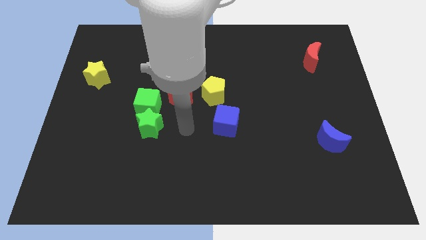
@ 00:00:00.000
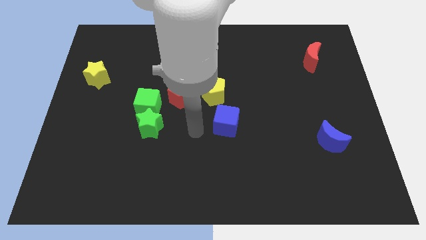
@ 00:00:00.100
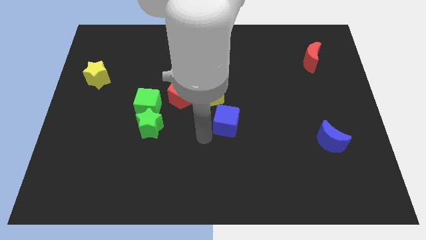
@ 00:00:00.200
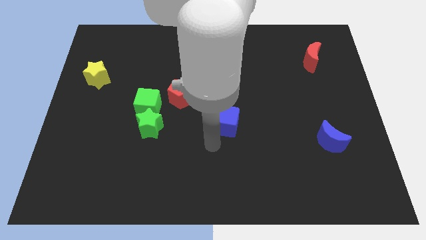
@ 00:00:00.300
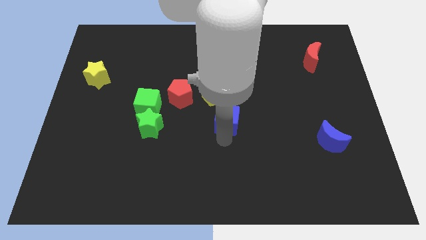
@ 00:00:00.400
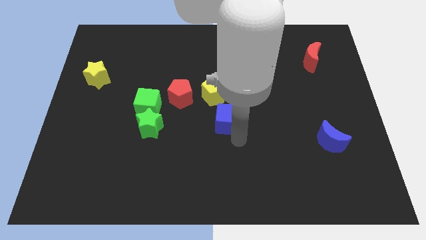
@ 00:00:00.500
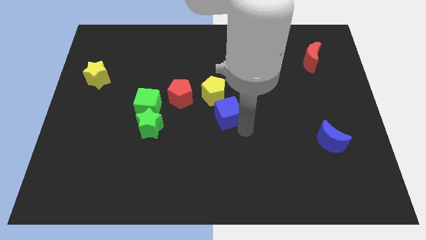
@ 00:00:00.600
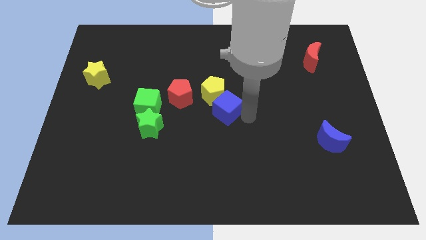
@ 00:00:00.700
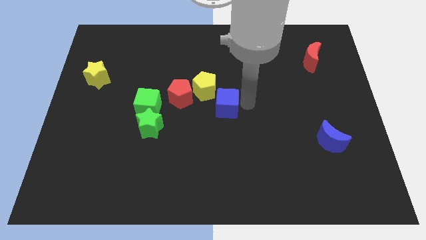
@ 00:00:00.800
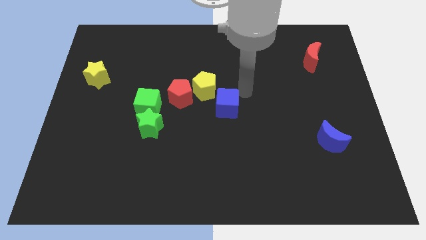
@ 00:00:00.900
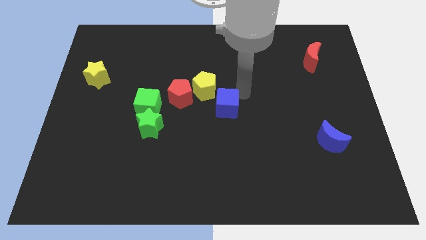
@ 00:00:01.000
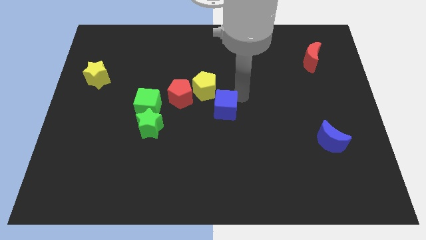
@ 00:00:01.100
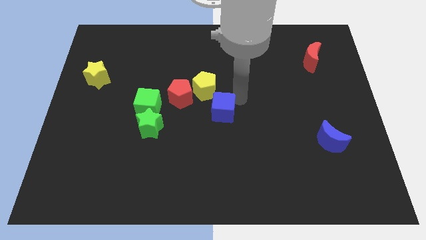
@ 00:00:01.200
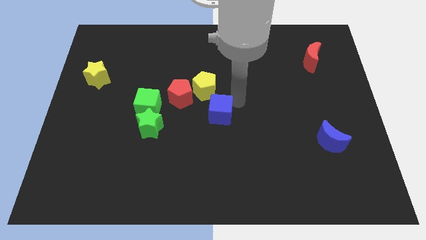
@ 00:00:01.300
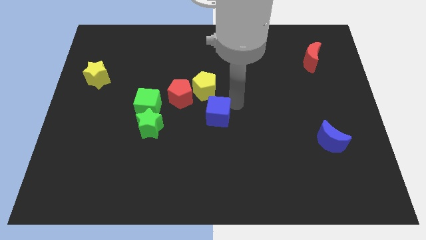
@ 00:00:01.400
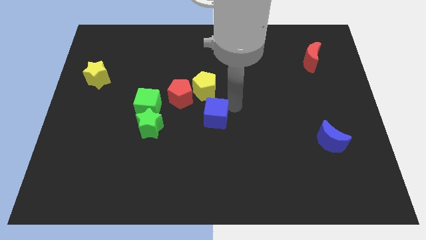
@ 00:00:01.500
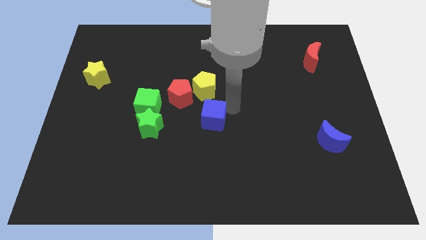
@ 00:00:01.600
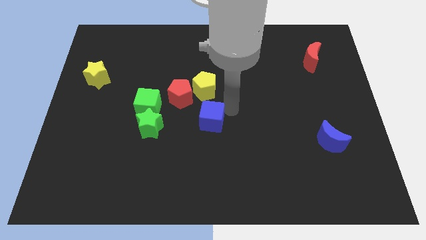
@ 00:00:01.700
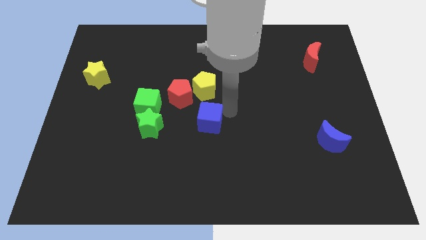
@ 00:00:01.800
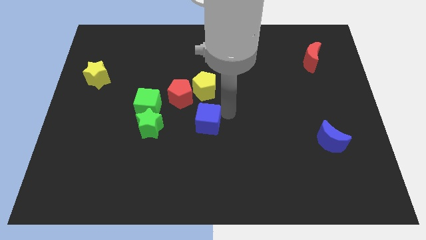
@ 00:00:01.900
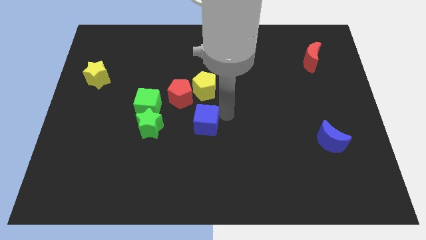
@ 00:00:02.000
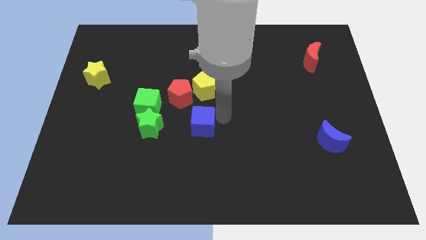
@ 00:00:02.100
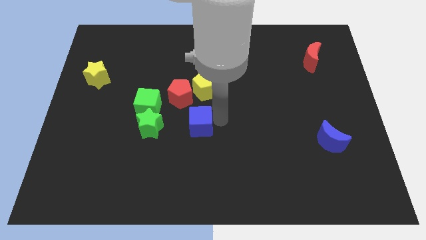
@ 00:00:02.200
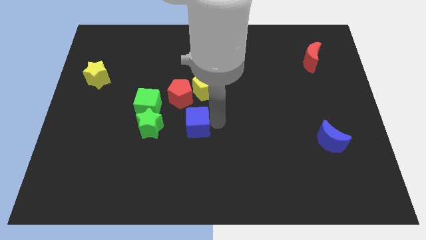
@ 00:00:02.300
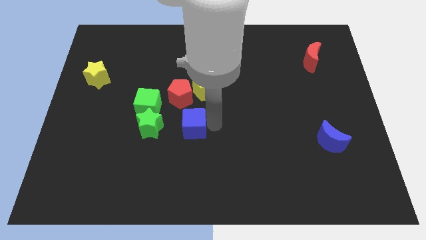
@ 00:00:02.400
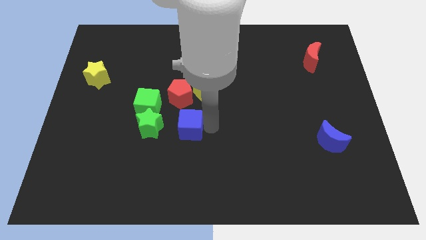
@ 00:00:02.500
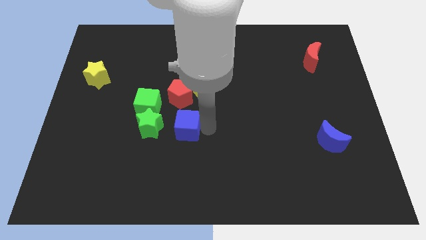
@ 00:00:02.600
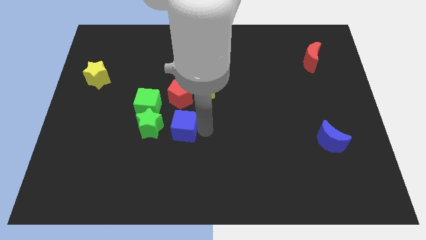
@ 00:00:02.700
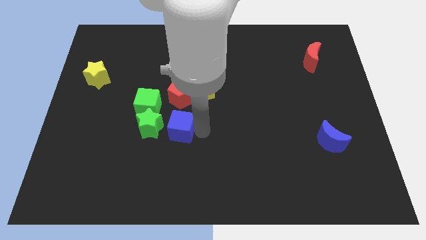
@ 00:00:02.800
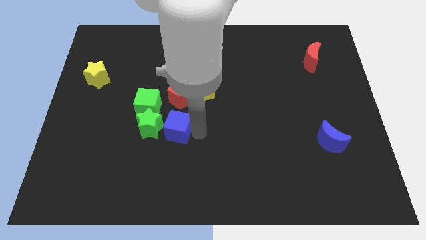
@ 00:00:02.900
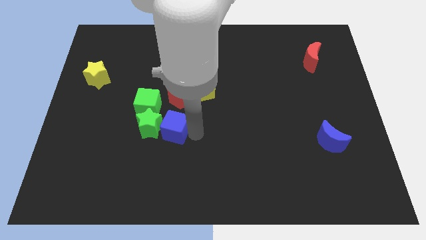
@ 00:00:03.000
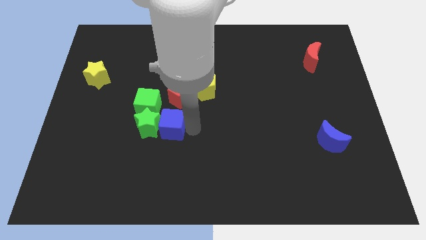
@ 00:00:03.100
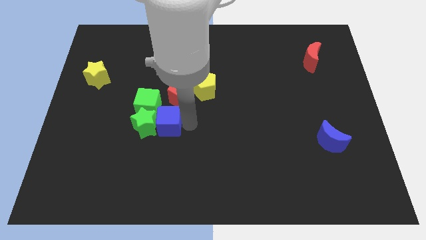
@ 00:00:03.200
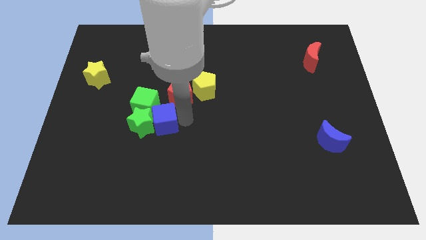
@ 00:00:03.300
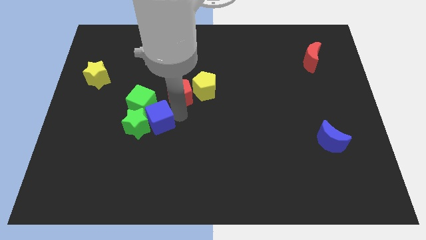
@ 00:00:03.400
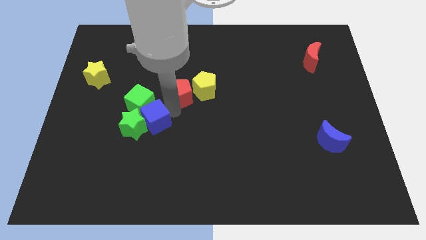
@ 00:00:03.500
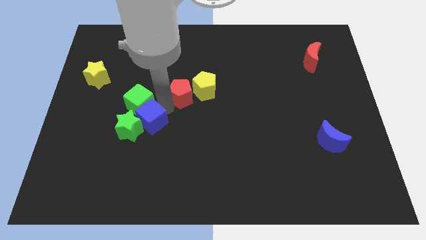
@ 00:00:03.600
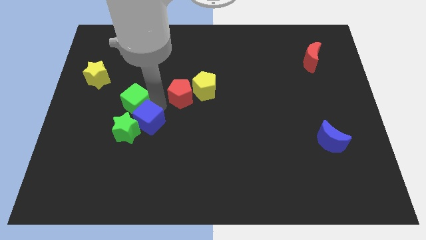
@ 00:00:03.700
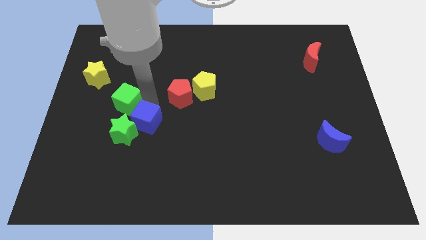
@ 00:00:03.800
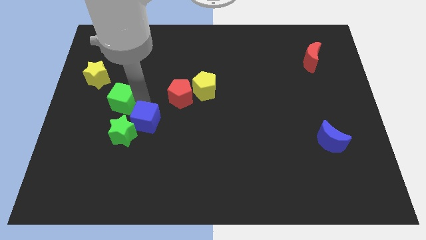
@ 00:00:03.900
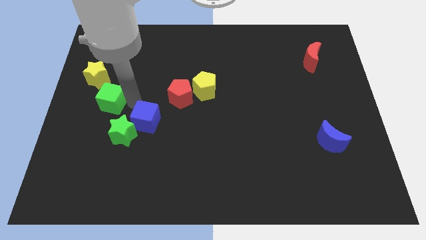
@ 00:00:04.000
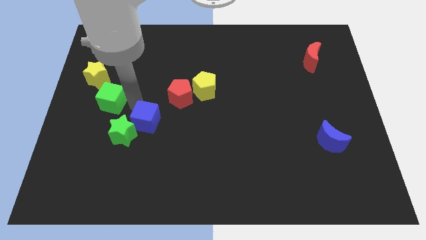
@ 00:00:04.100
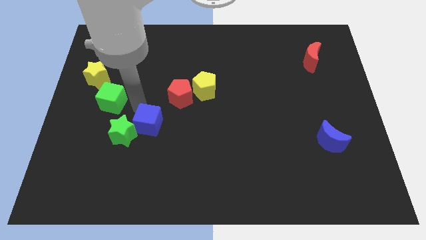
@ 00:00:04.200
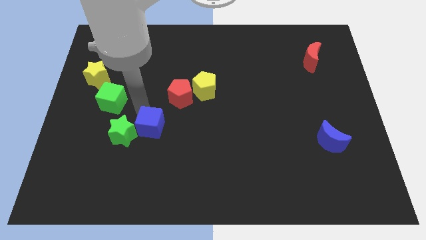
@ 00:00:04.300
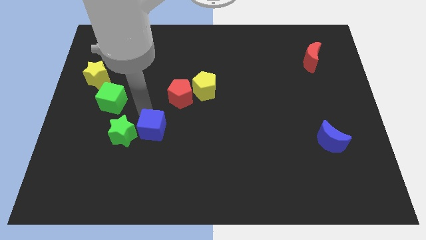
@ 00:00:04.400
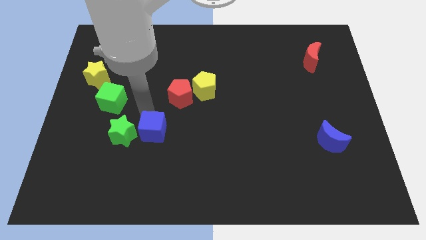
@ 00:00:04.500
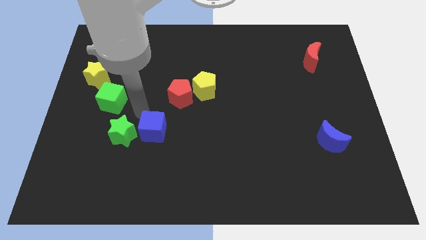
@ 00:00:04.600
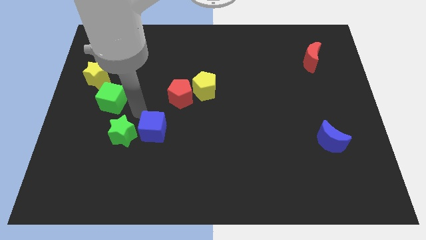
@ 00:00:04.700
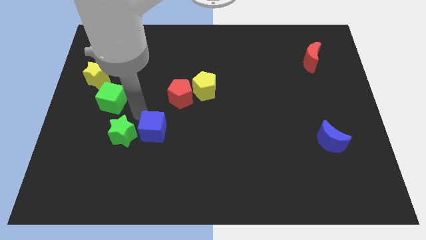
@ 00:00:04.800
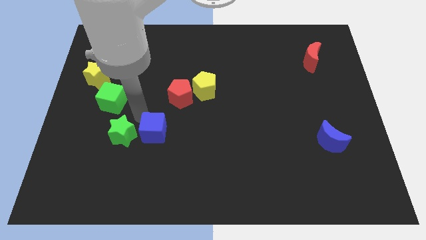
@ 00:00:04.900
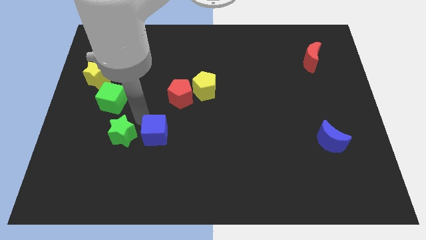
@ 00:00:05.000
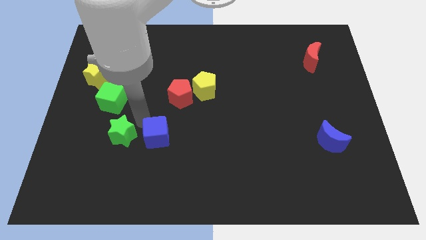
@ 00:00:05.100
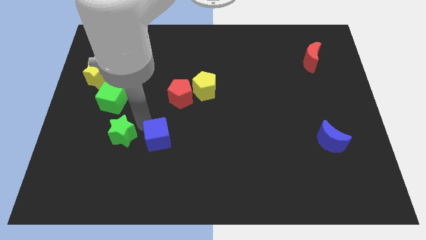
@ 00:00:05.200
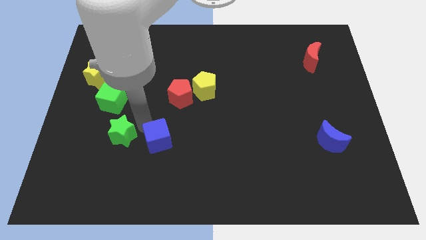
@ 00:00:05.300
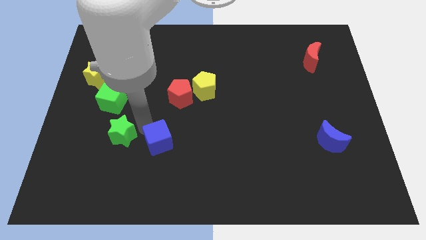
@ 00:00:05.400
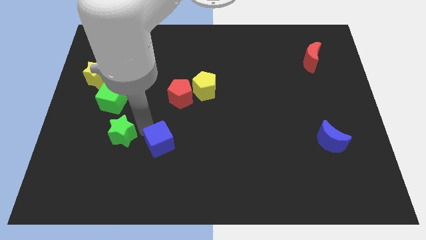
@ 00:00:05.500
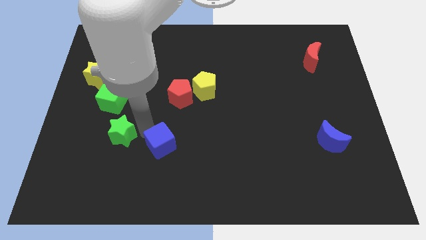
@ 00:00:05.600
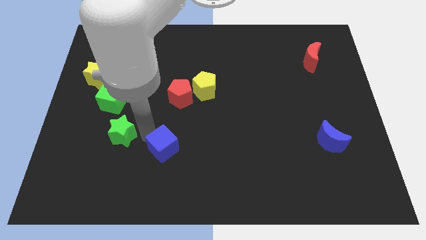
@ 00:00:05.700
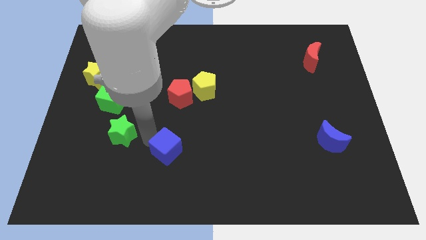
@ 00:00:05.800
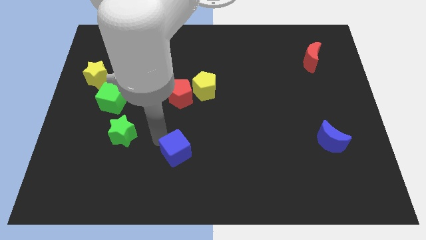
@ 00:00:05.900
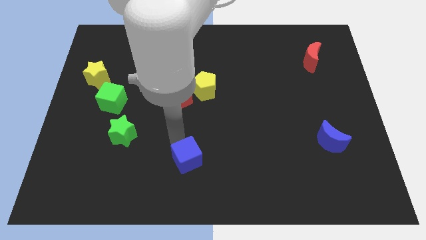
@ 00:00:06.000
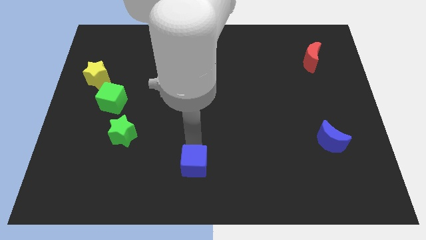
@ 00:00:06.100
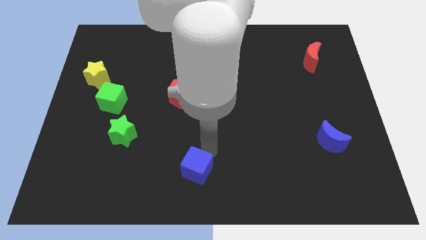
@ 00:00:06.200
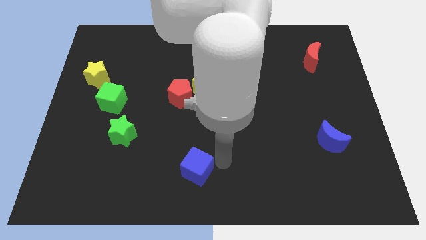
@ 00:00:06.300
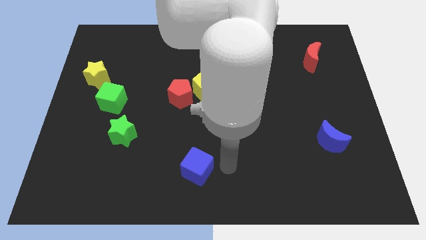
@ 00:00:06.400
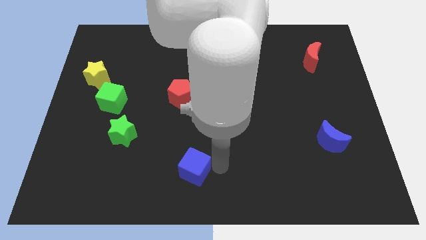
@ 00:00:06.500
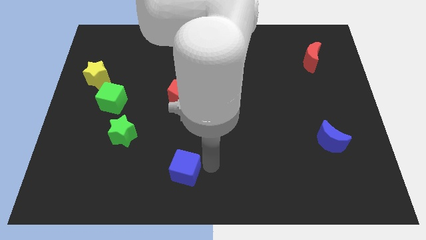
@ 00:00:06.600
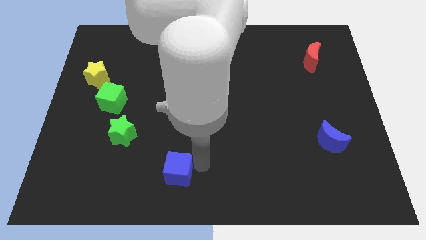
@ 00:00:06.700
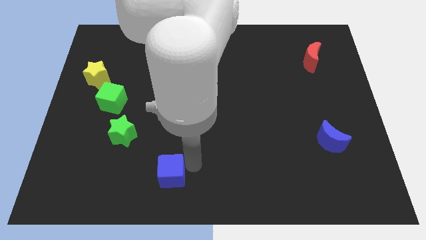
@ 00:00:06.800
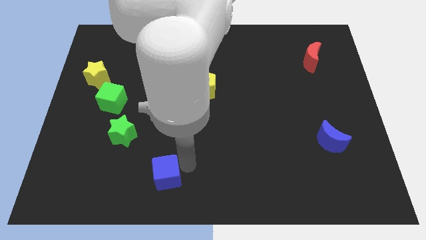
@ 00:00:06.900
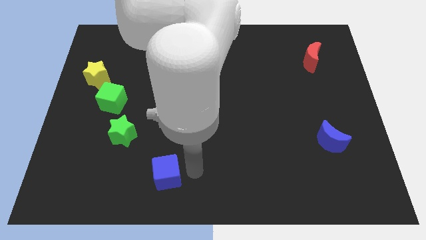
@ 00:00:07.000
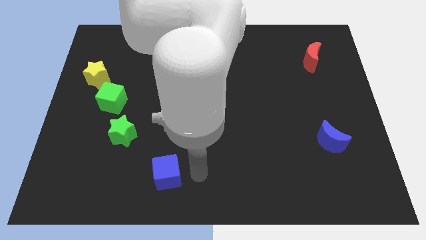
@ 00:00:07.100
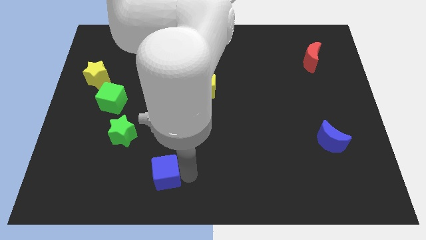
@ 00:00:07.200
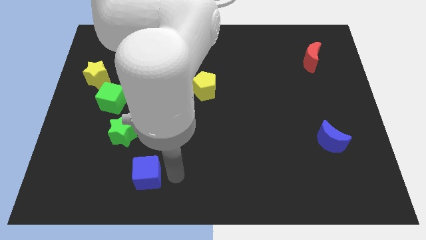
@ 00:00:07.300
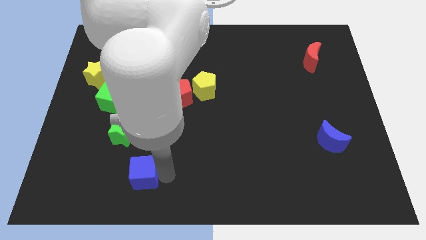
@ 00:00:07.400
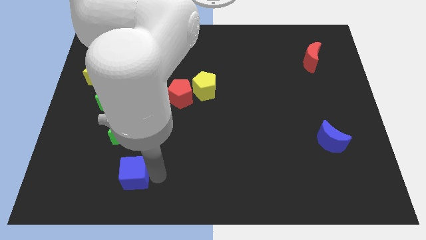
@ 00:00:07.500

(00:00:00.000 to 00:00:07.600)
push the blue cube to the bottom side of the green star

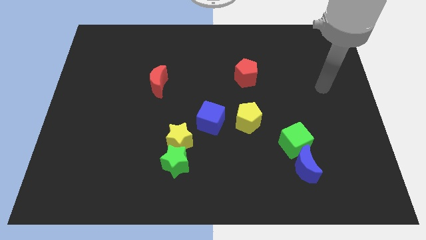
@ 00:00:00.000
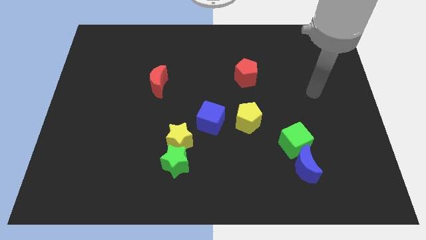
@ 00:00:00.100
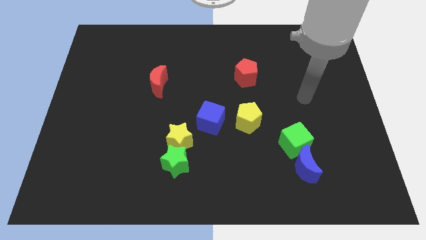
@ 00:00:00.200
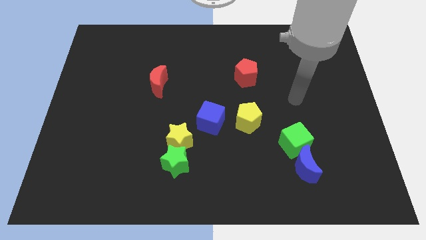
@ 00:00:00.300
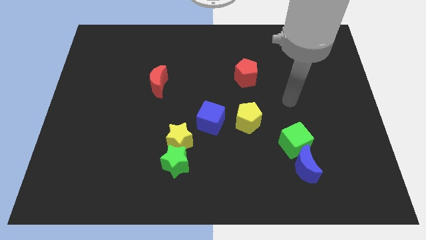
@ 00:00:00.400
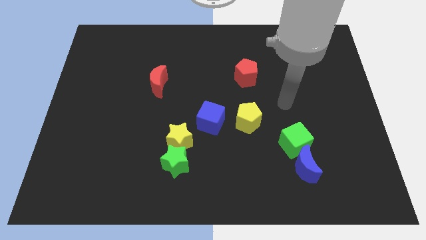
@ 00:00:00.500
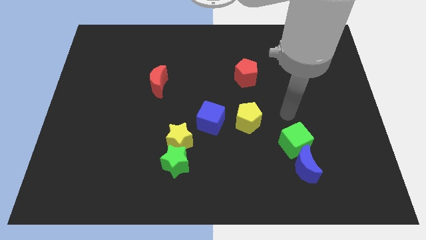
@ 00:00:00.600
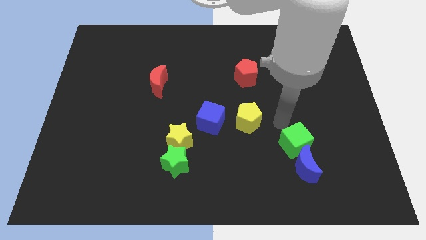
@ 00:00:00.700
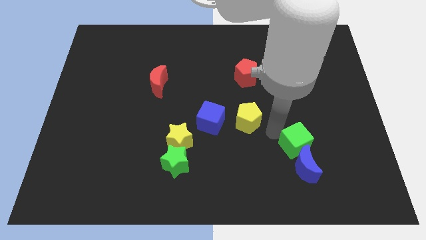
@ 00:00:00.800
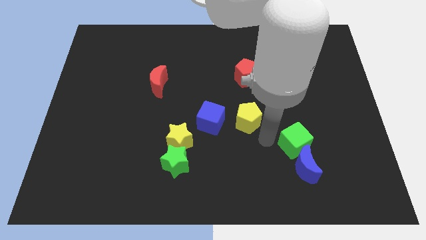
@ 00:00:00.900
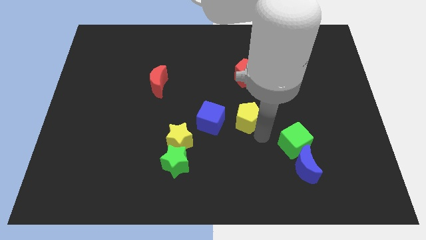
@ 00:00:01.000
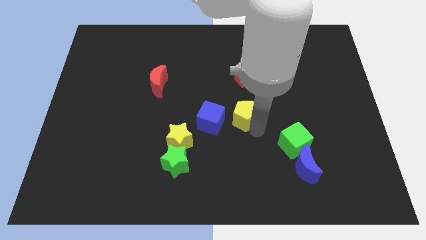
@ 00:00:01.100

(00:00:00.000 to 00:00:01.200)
move the yellow pentagon to the top right side of the blue cube
